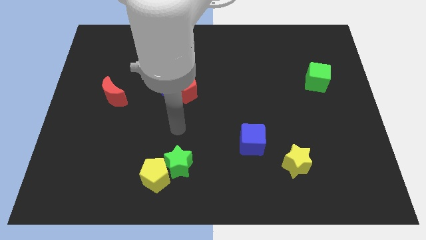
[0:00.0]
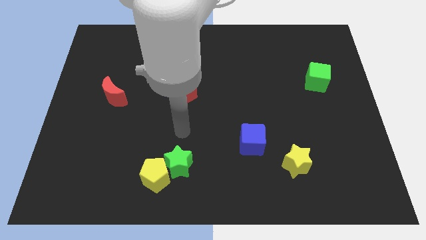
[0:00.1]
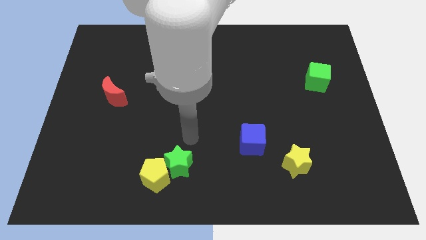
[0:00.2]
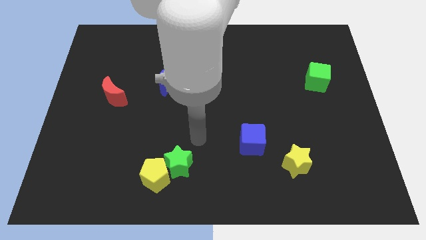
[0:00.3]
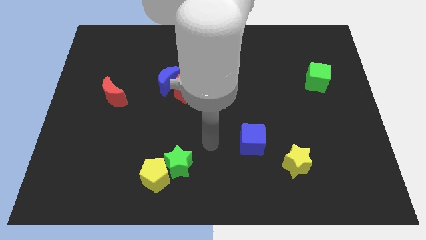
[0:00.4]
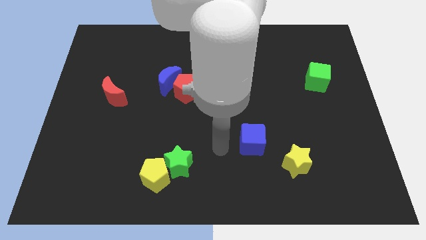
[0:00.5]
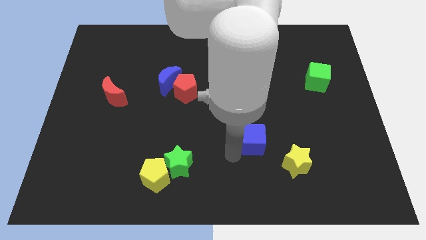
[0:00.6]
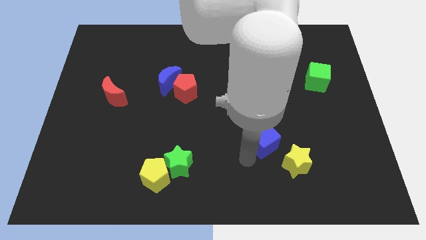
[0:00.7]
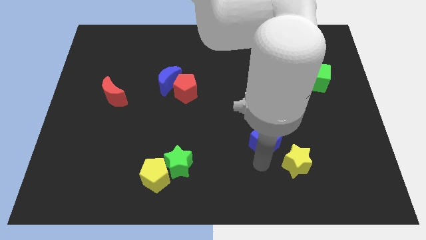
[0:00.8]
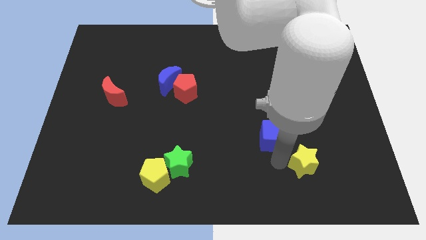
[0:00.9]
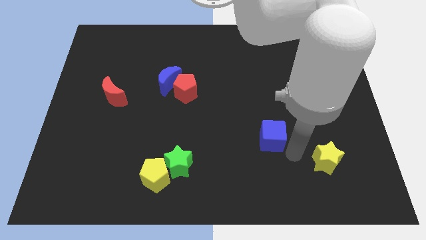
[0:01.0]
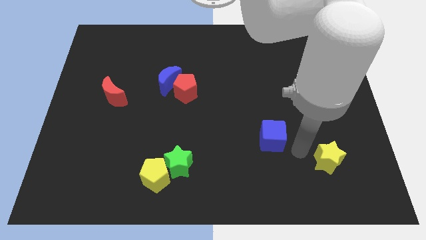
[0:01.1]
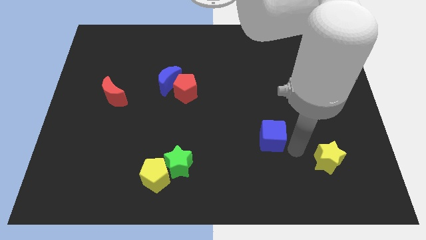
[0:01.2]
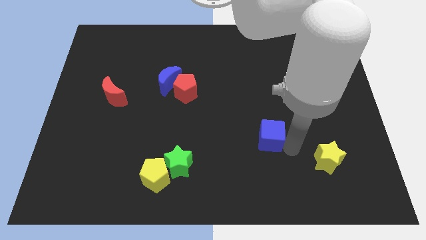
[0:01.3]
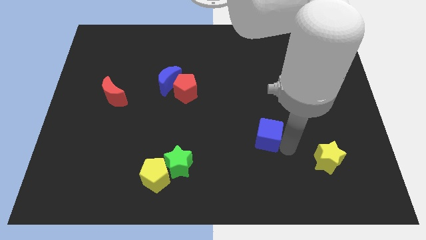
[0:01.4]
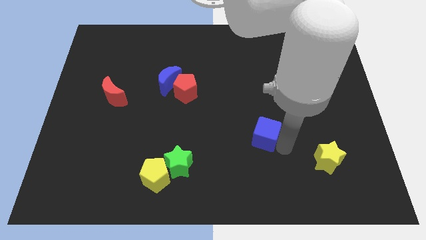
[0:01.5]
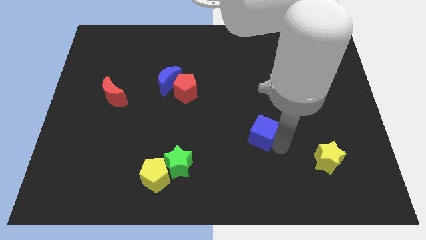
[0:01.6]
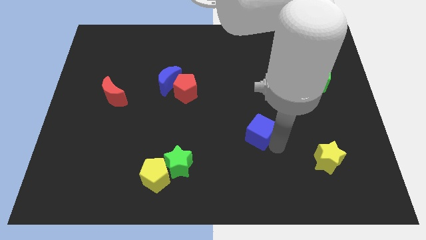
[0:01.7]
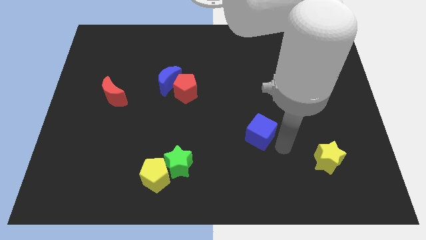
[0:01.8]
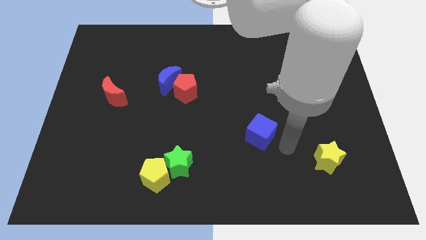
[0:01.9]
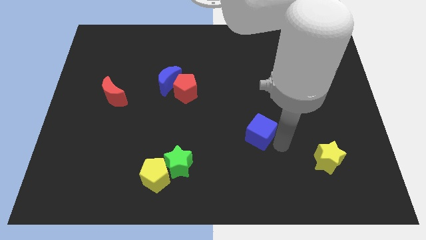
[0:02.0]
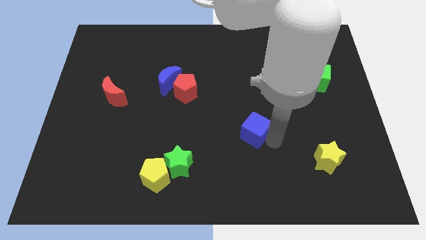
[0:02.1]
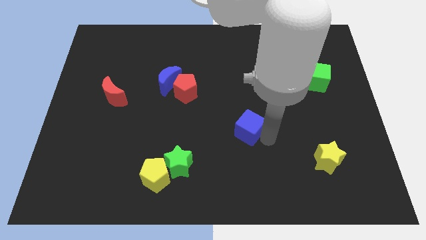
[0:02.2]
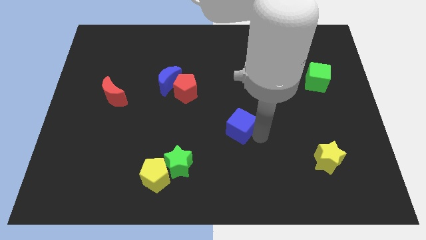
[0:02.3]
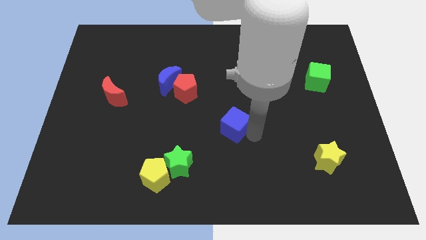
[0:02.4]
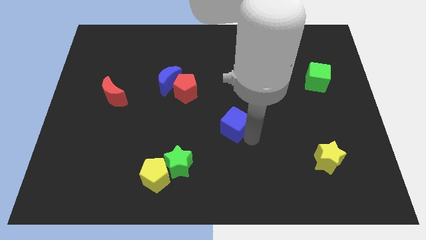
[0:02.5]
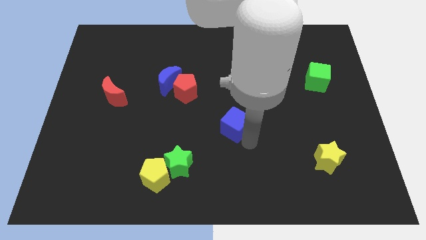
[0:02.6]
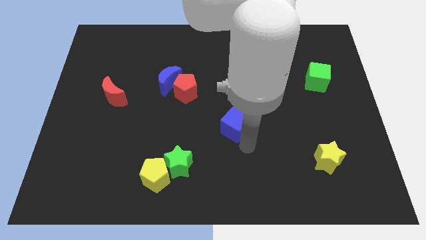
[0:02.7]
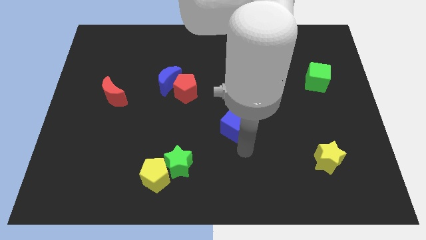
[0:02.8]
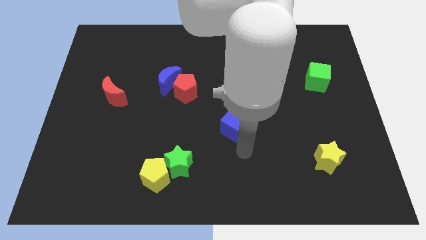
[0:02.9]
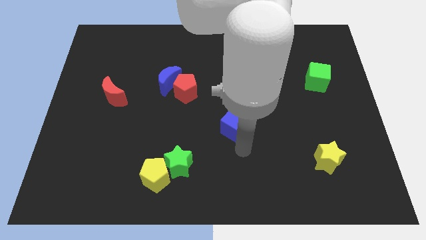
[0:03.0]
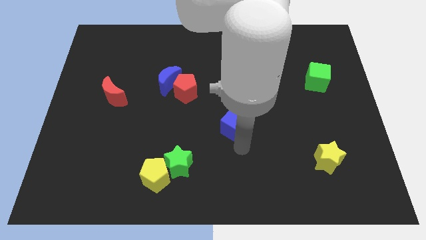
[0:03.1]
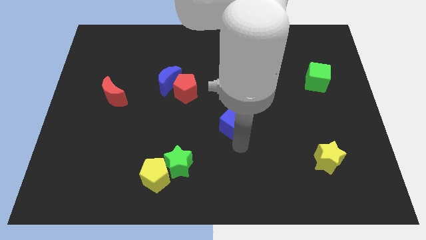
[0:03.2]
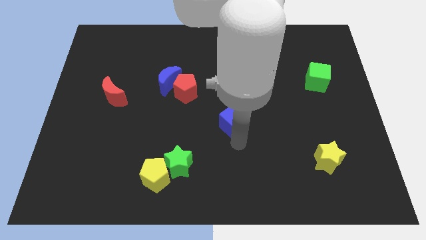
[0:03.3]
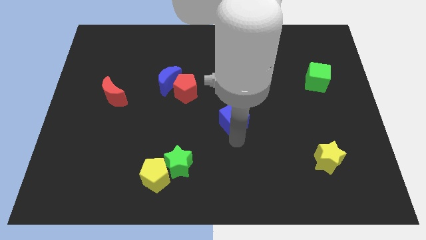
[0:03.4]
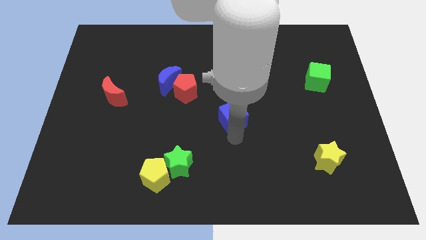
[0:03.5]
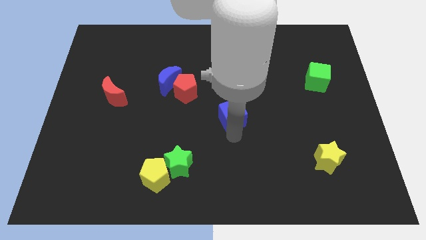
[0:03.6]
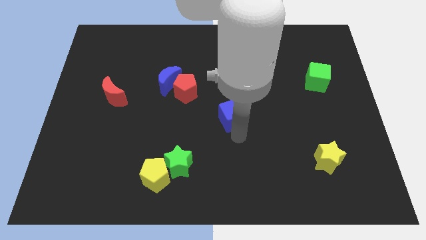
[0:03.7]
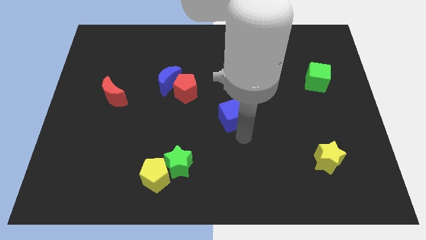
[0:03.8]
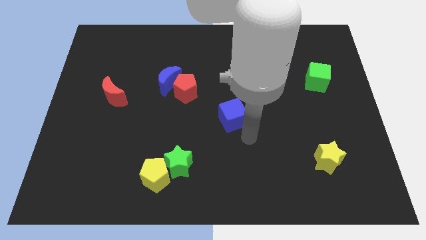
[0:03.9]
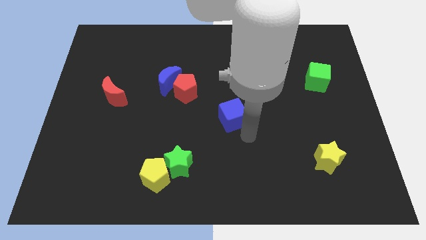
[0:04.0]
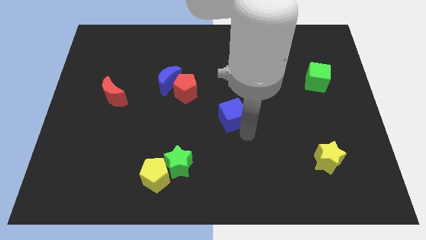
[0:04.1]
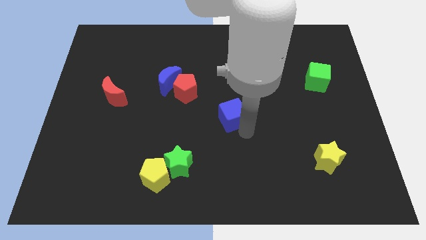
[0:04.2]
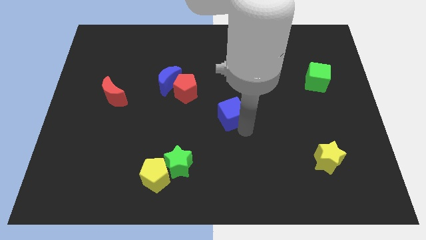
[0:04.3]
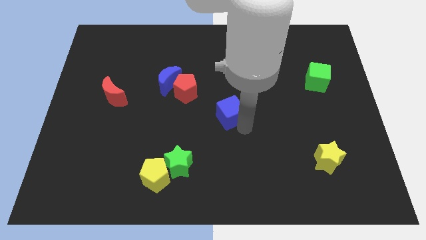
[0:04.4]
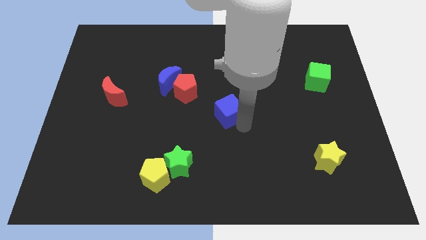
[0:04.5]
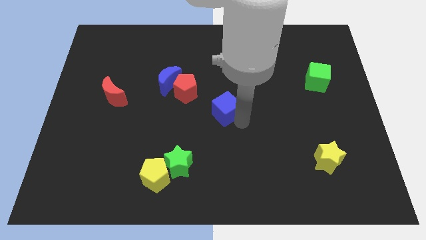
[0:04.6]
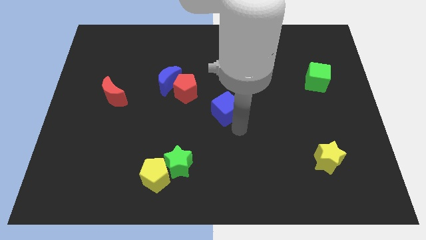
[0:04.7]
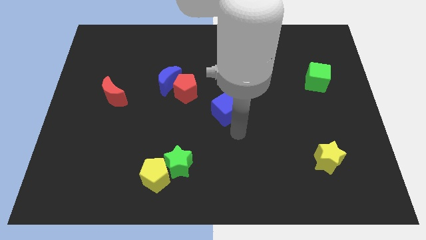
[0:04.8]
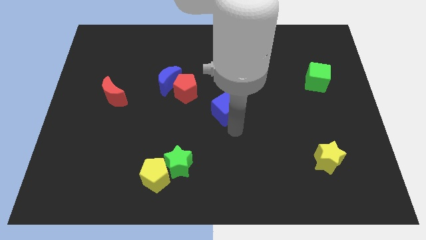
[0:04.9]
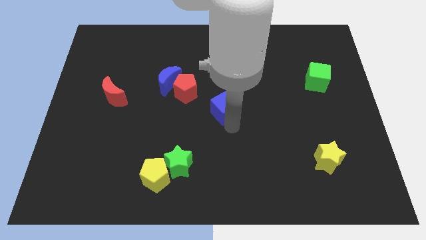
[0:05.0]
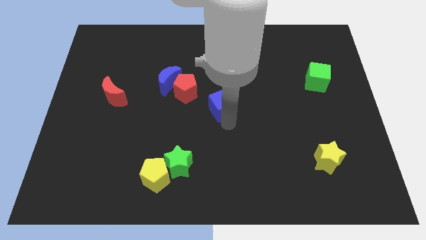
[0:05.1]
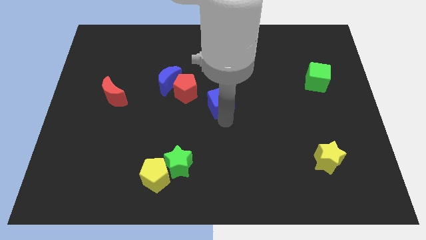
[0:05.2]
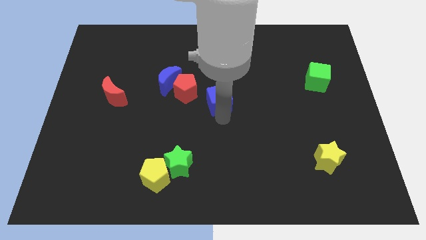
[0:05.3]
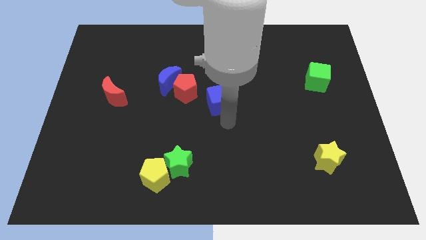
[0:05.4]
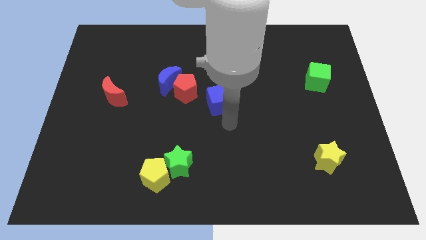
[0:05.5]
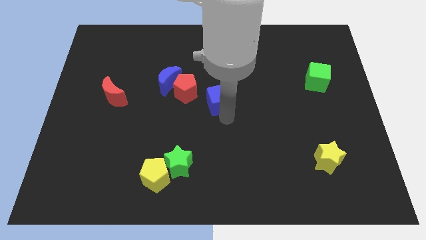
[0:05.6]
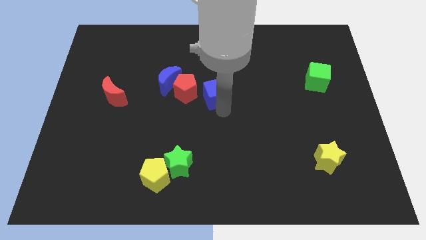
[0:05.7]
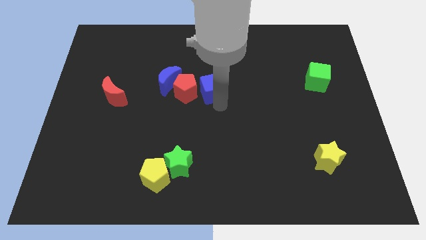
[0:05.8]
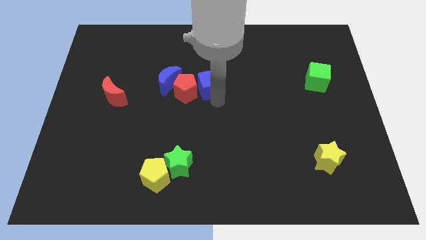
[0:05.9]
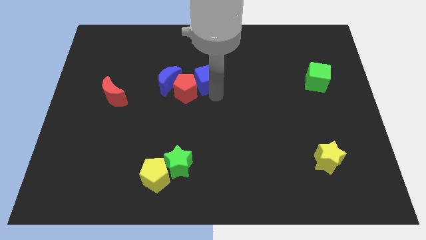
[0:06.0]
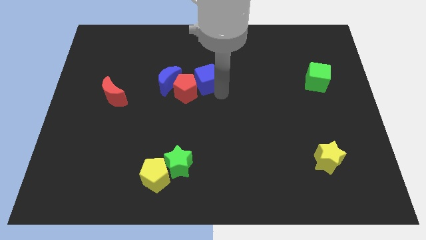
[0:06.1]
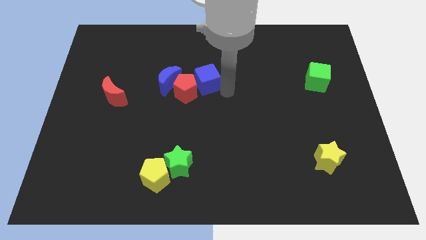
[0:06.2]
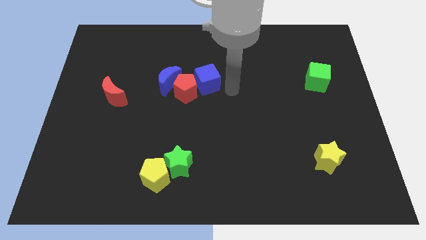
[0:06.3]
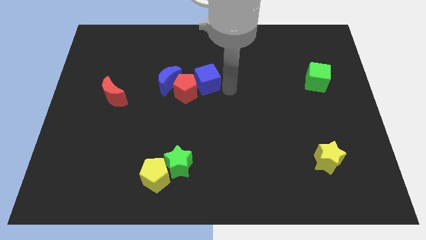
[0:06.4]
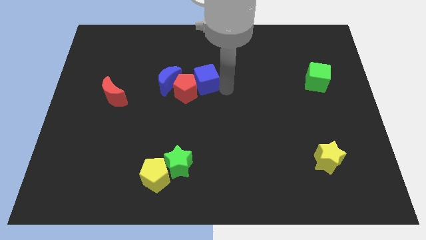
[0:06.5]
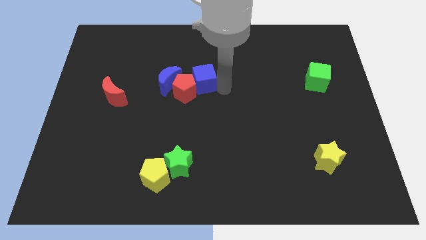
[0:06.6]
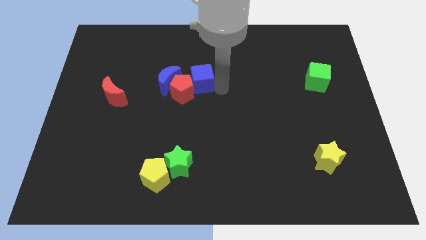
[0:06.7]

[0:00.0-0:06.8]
move the blue cube upwards and then to the left

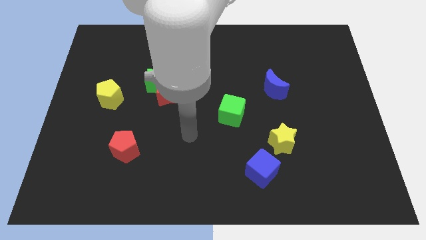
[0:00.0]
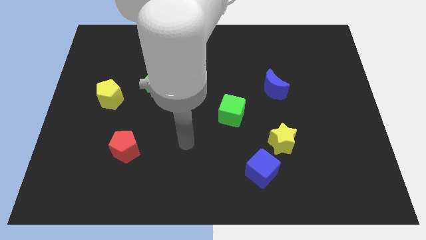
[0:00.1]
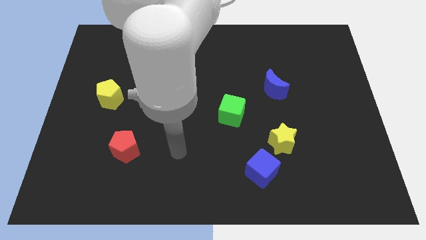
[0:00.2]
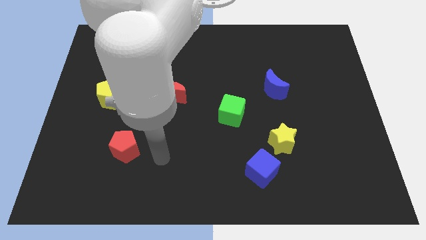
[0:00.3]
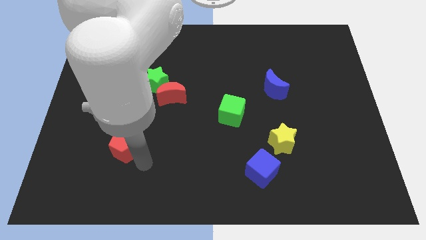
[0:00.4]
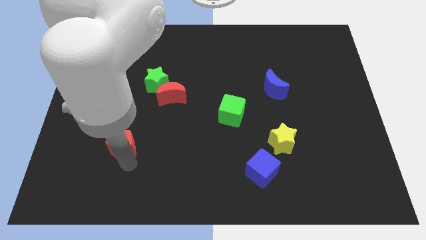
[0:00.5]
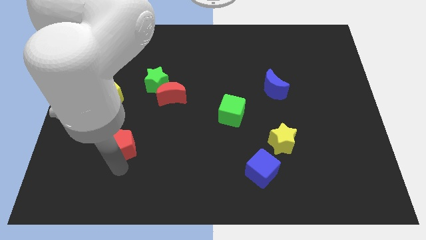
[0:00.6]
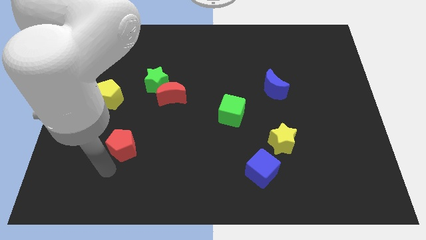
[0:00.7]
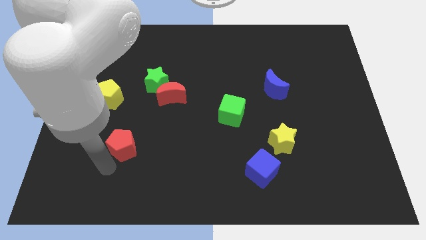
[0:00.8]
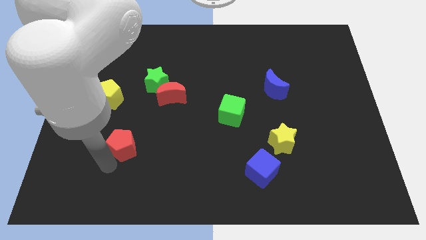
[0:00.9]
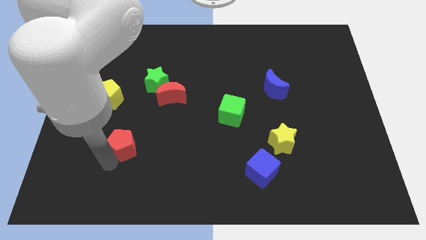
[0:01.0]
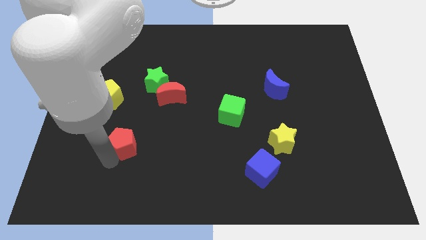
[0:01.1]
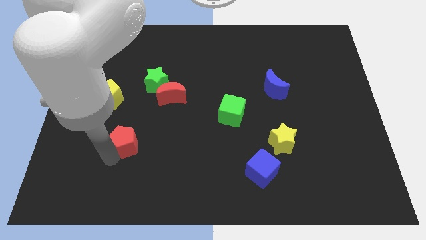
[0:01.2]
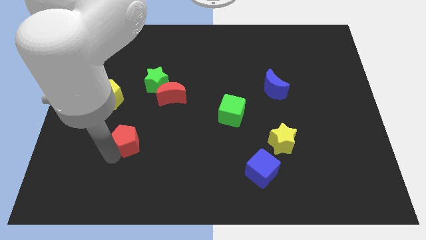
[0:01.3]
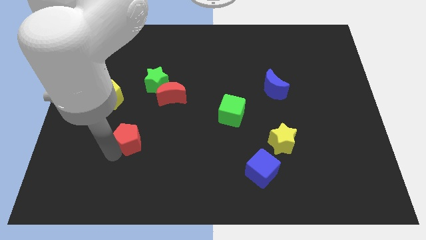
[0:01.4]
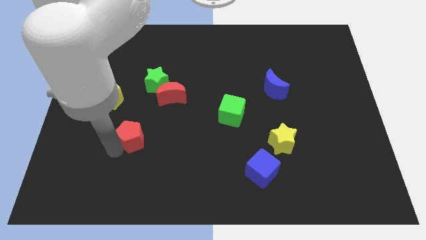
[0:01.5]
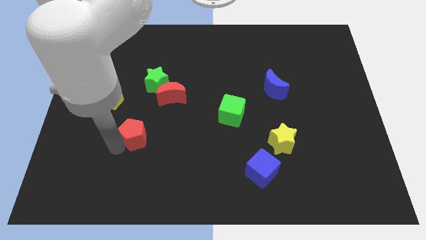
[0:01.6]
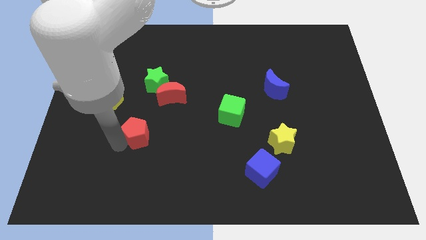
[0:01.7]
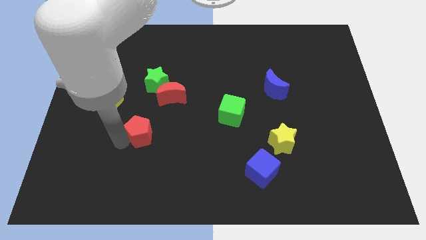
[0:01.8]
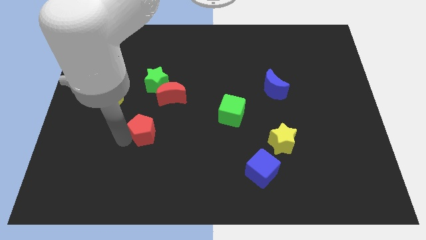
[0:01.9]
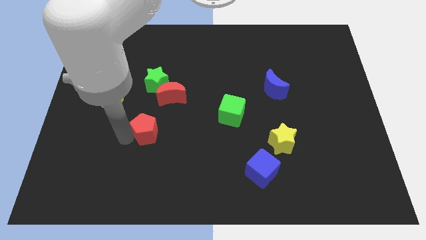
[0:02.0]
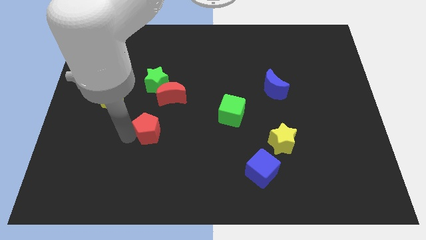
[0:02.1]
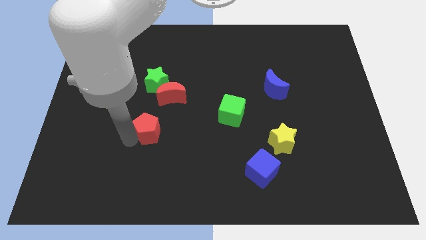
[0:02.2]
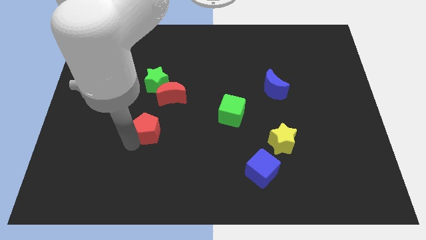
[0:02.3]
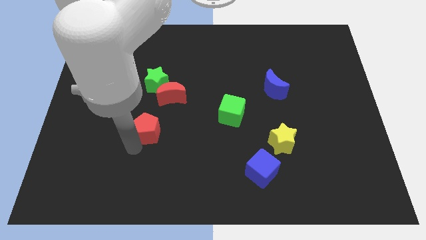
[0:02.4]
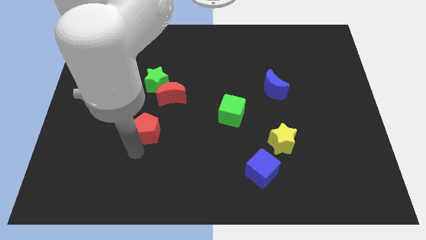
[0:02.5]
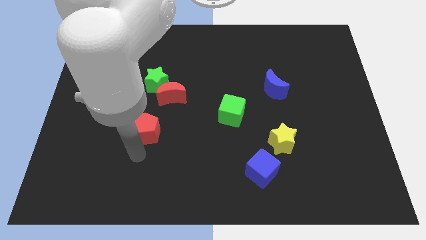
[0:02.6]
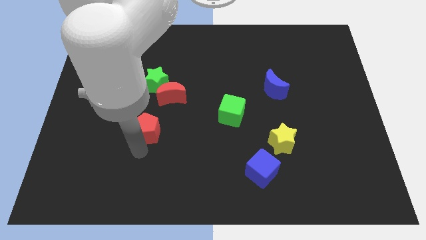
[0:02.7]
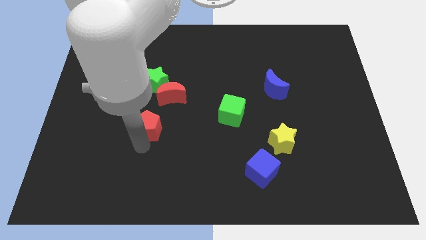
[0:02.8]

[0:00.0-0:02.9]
slide the red pentagon up and to the right slightly
